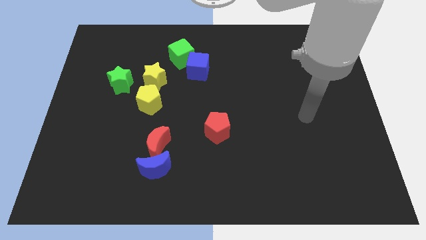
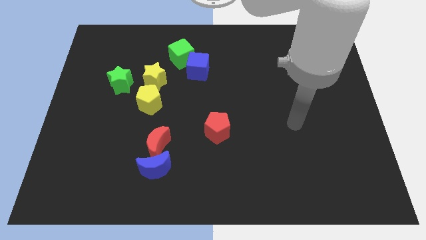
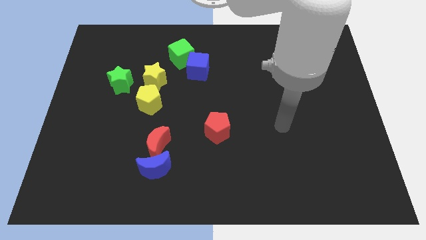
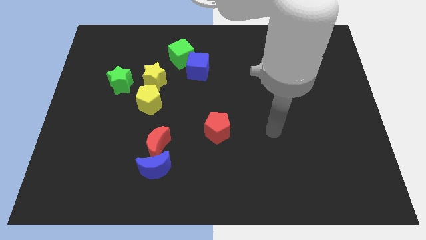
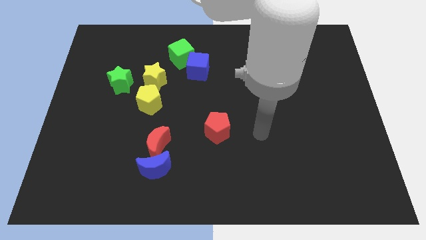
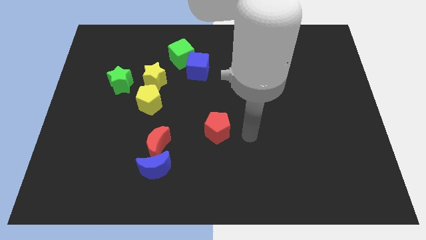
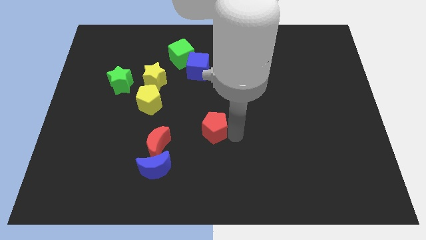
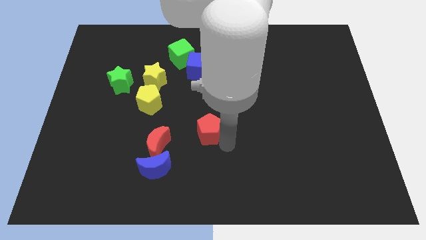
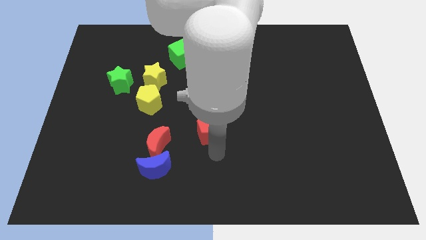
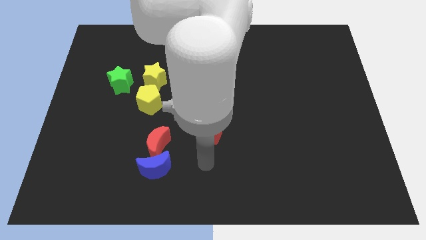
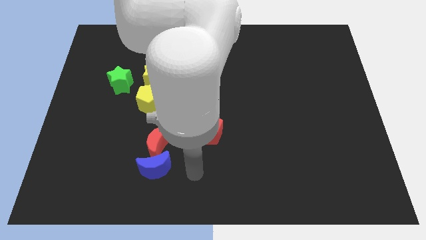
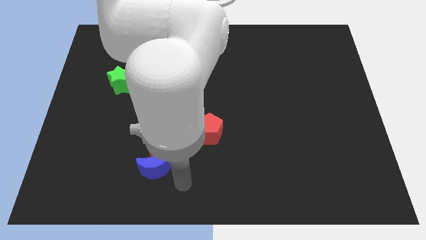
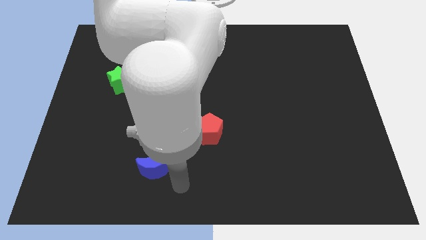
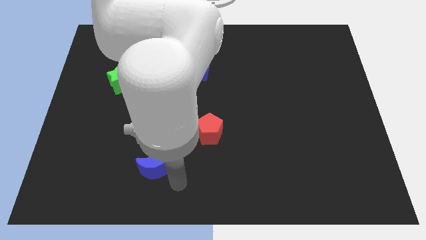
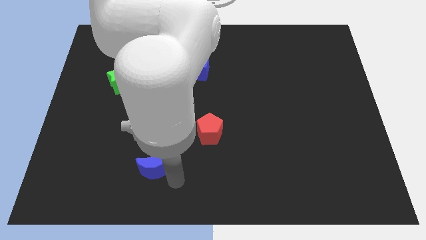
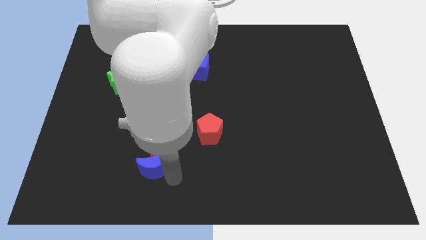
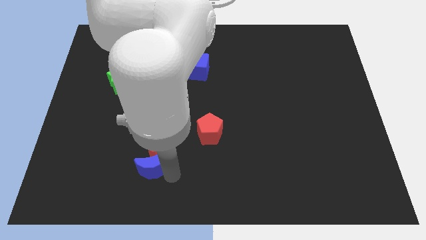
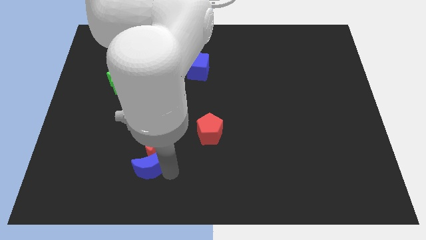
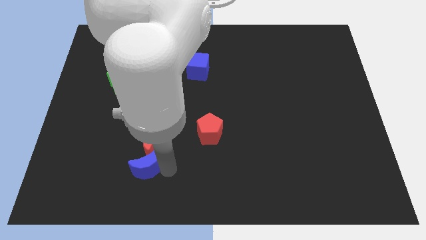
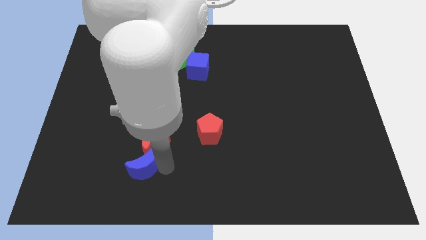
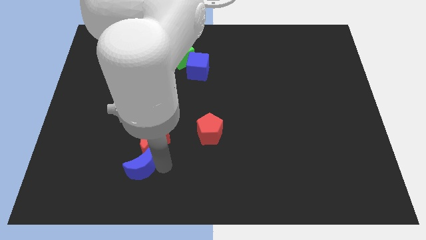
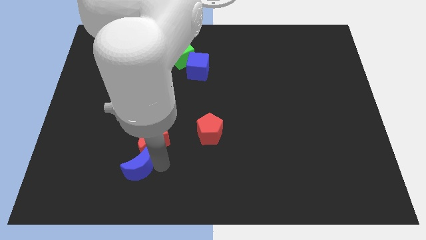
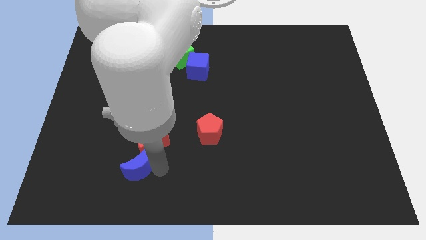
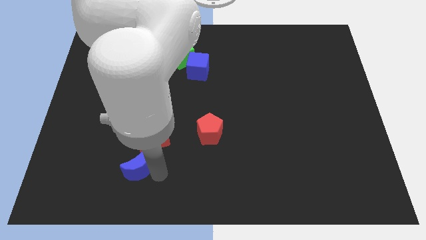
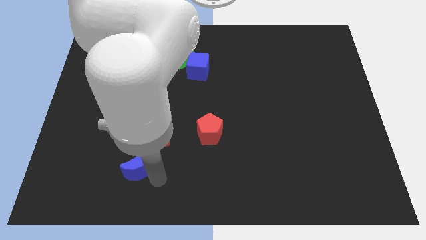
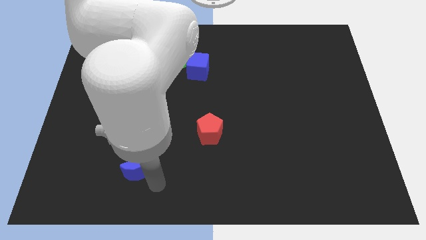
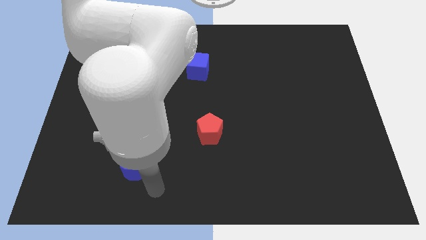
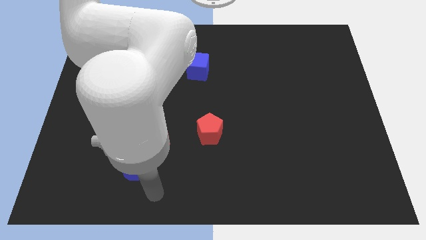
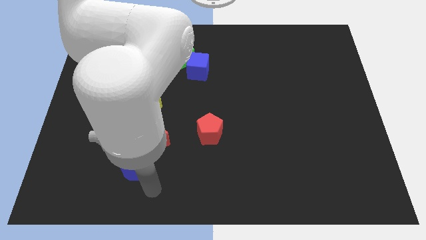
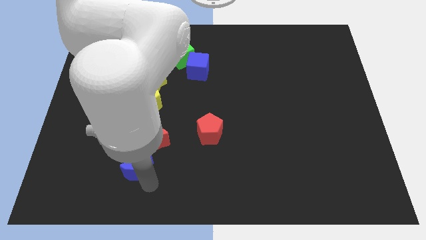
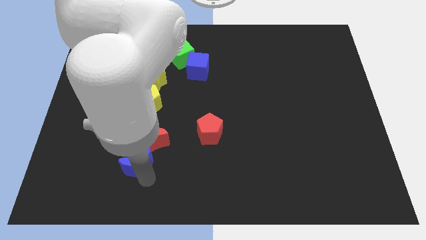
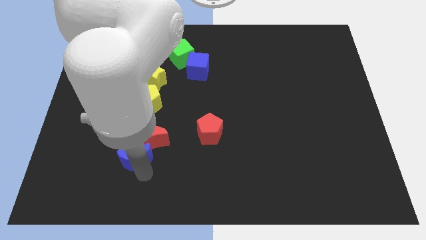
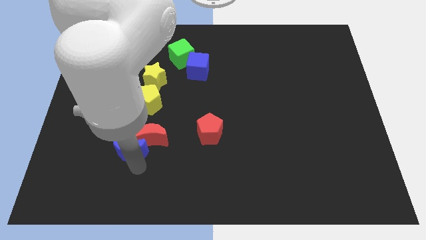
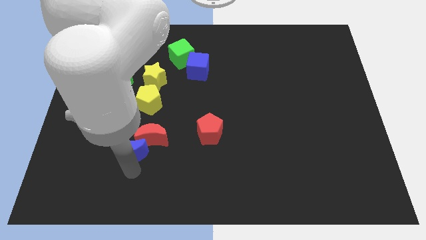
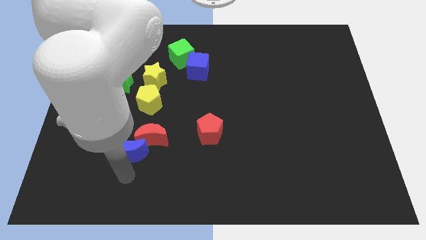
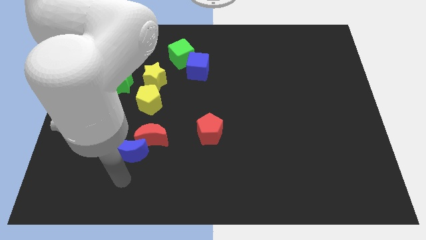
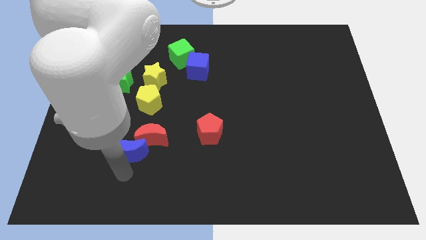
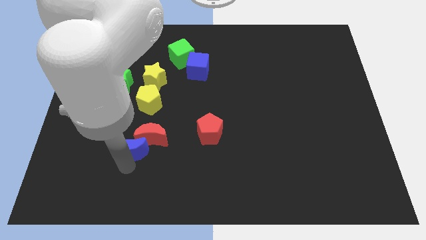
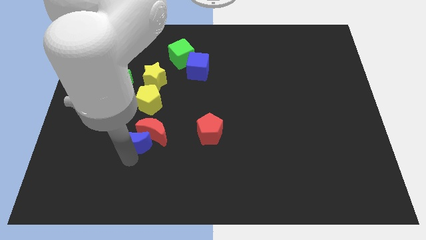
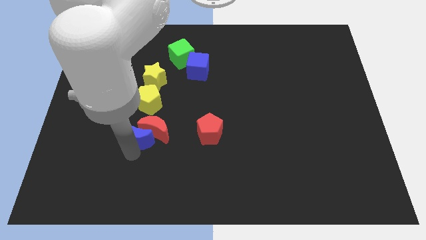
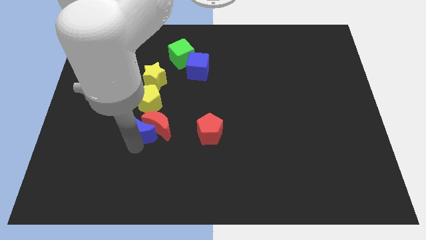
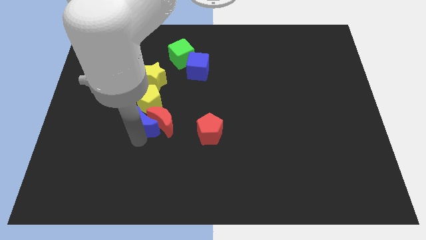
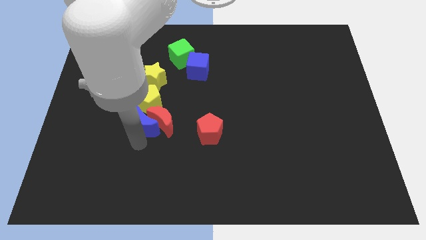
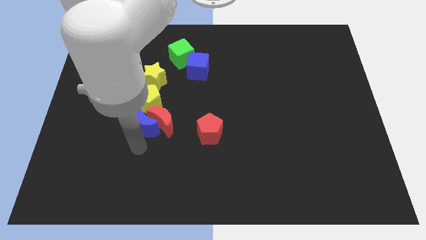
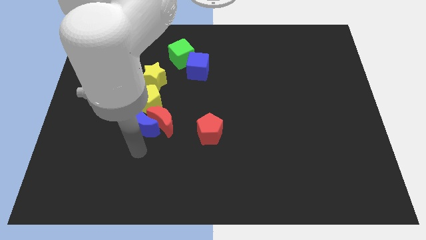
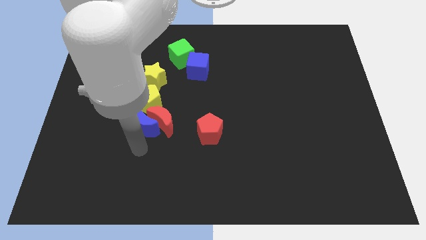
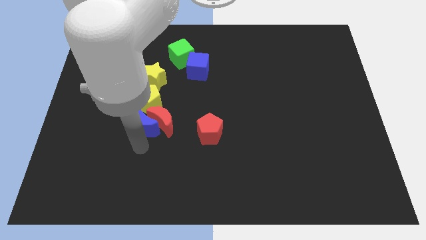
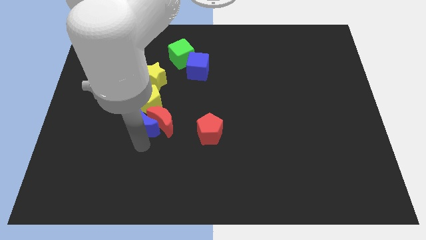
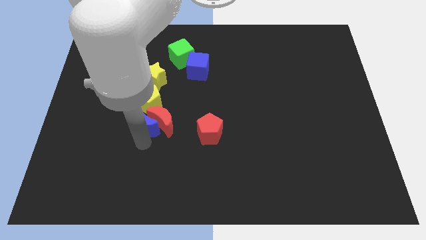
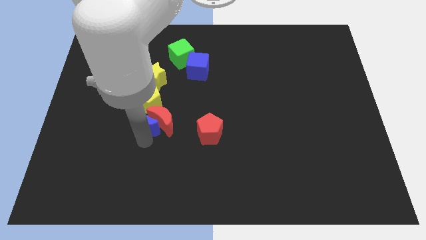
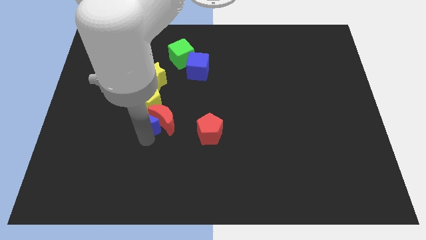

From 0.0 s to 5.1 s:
put the blue moon next to the yellow pentagon

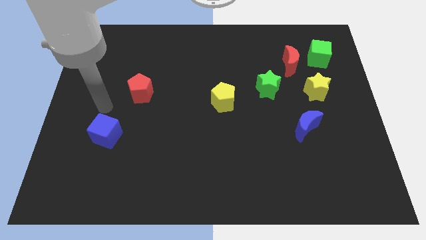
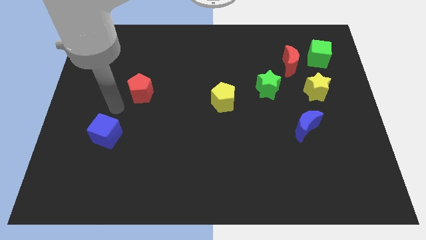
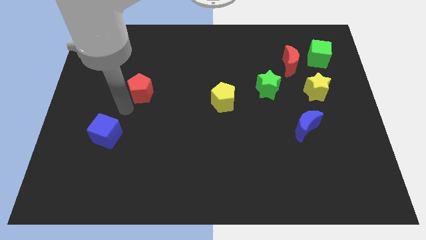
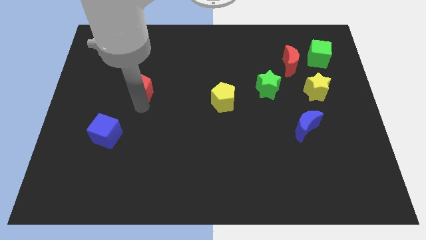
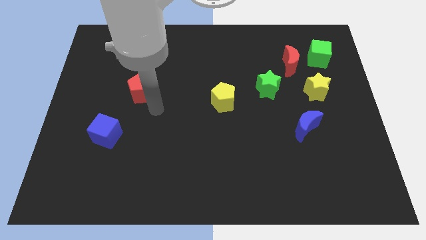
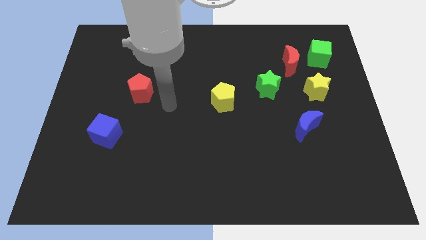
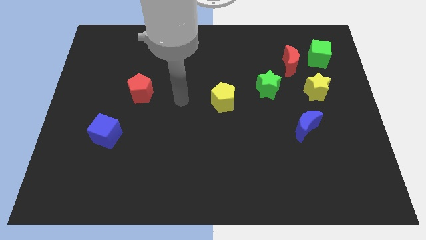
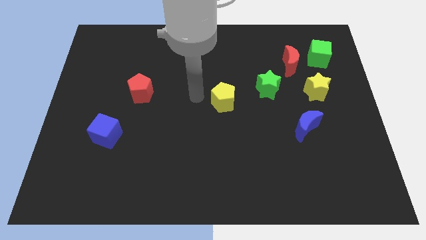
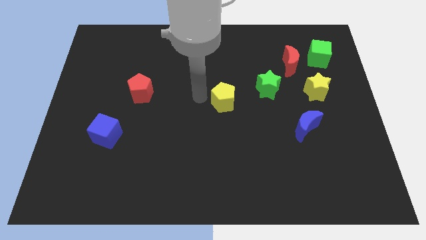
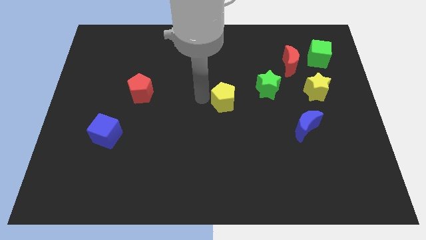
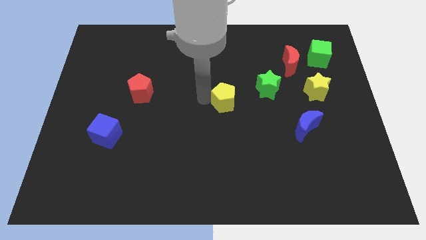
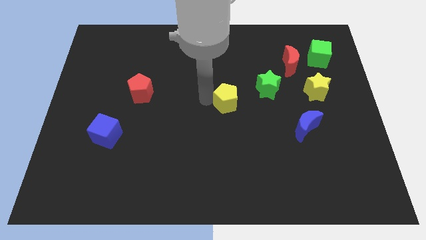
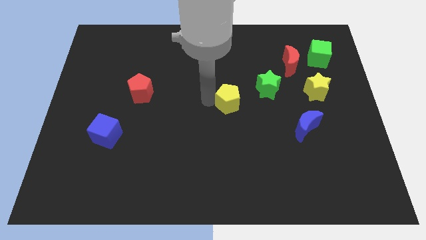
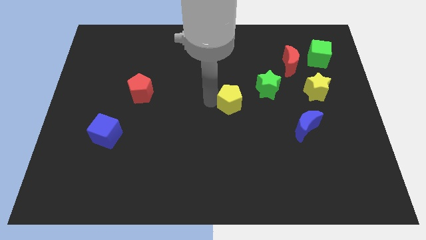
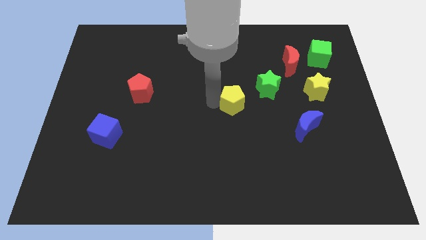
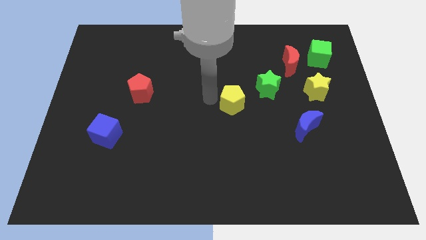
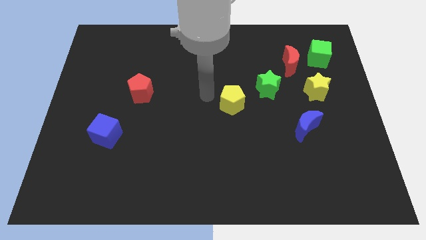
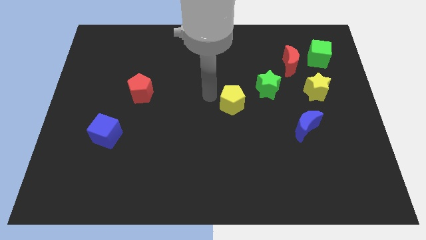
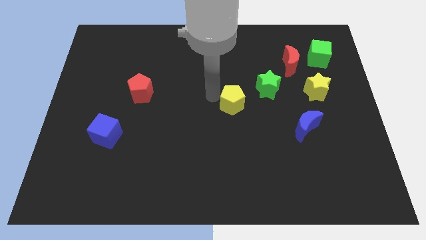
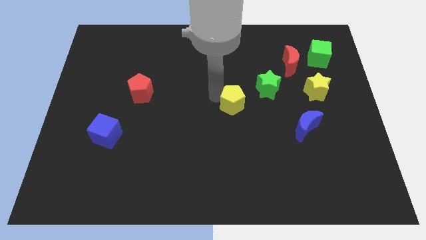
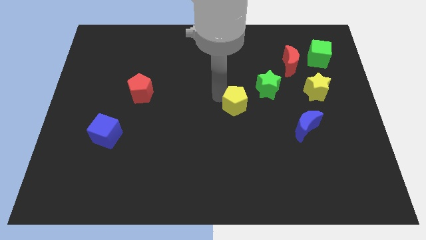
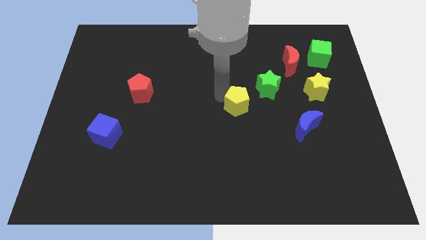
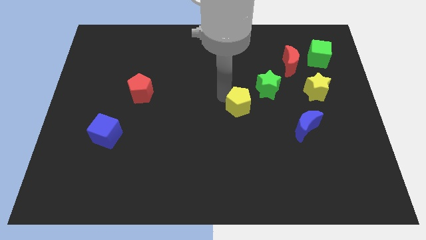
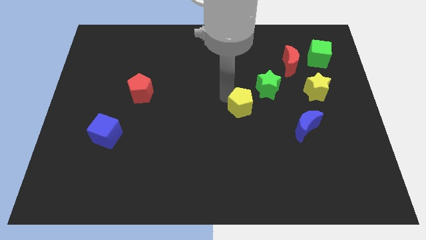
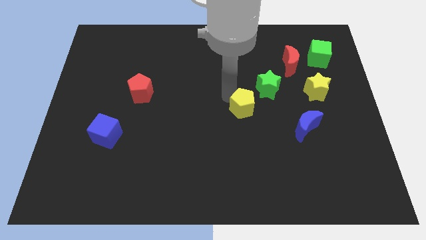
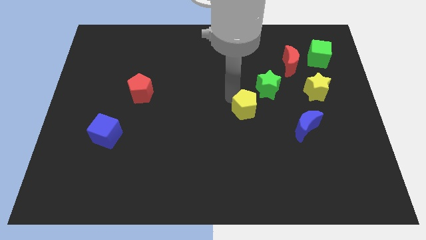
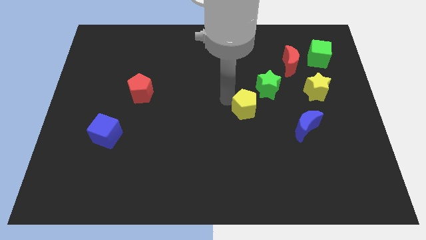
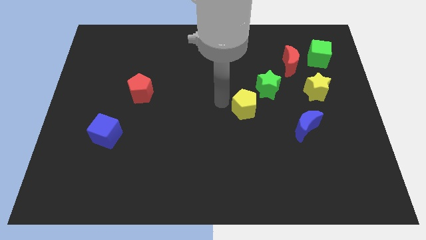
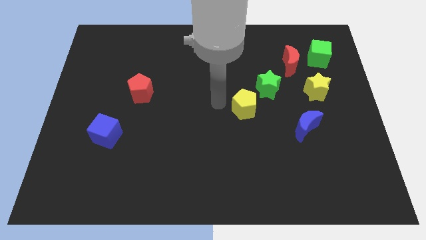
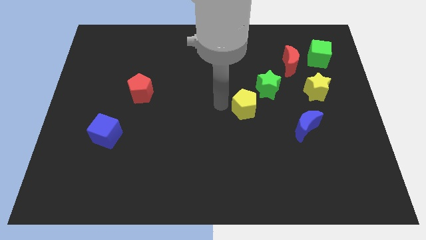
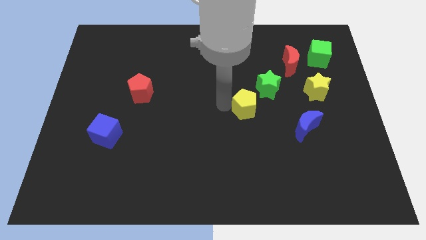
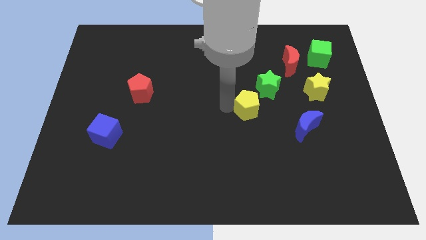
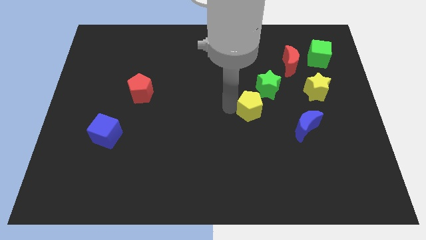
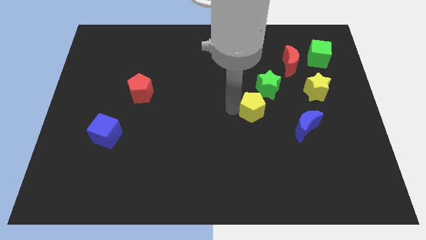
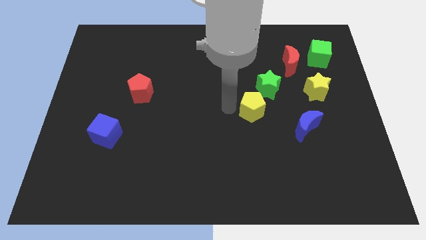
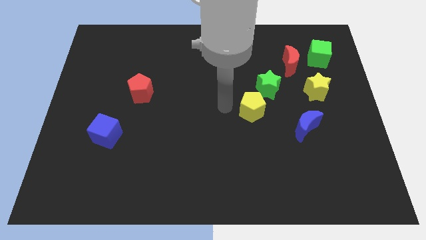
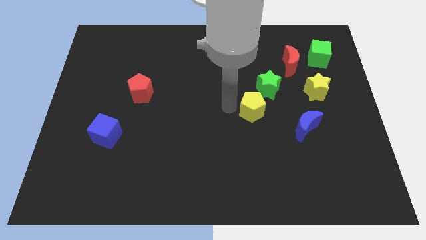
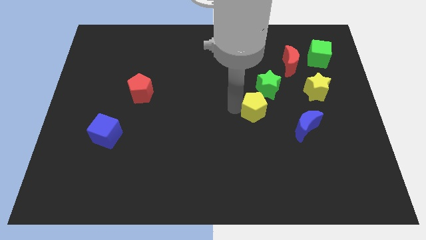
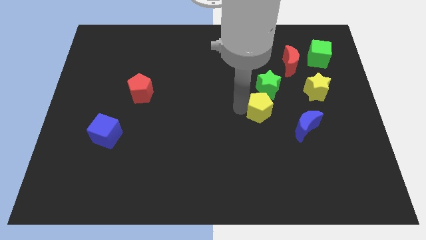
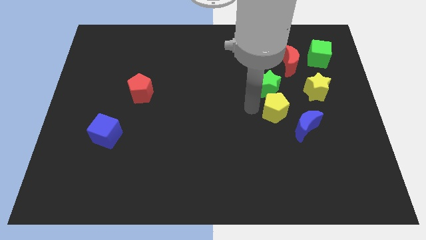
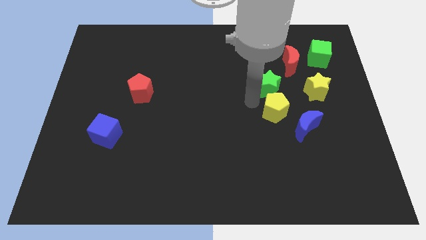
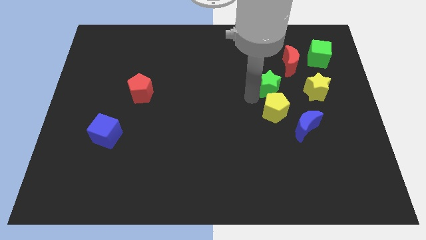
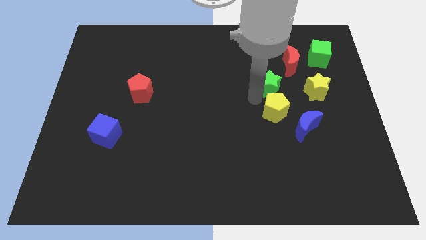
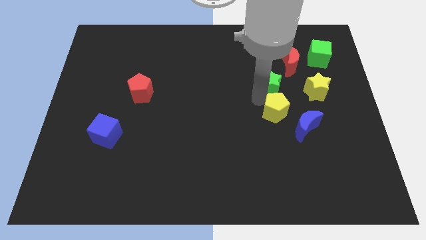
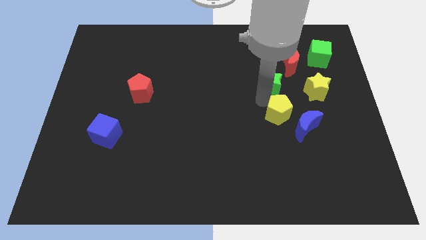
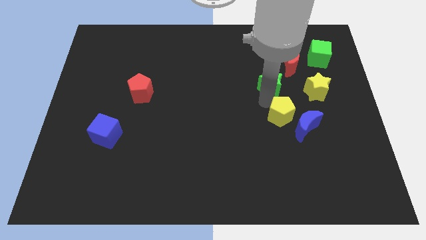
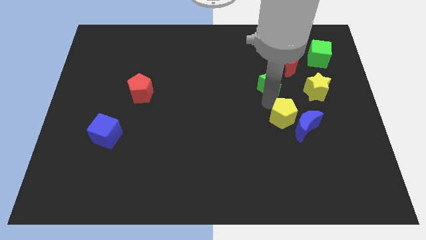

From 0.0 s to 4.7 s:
push the yellow pentagon next to the blue moon
